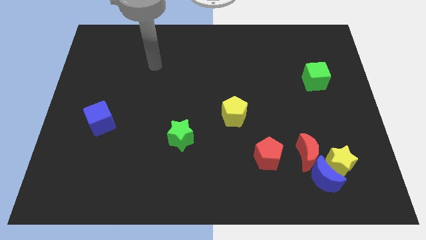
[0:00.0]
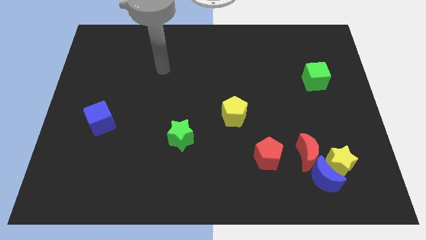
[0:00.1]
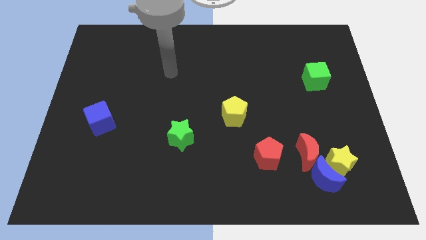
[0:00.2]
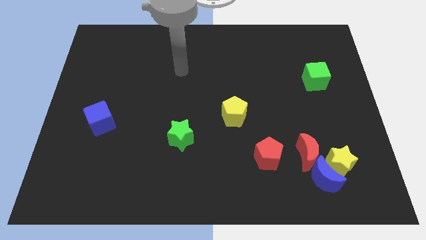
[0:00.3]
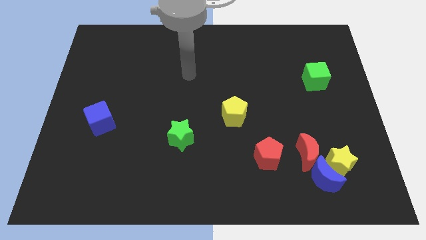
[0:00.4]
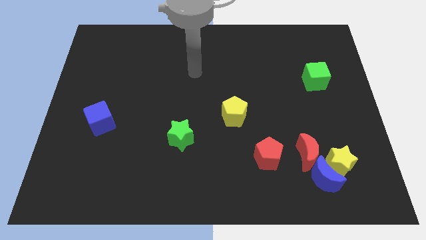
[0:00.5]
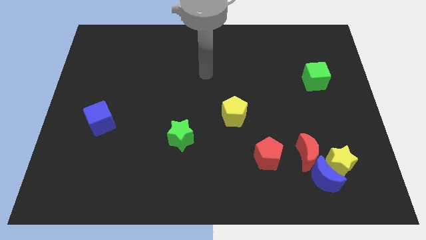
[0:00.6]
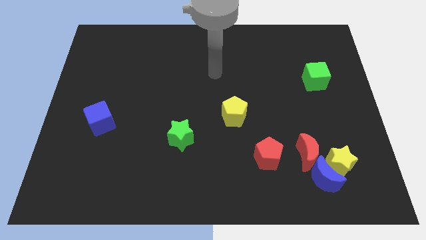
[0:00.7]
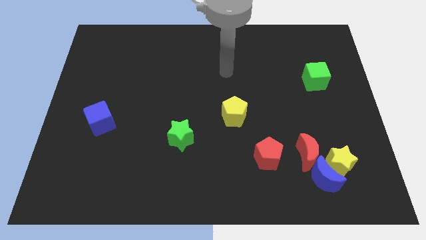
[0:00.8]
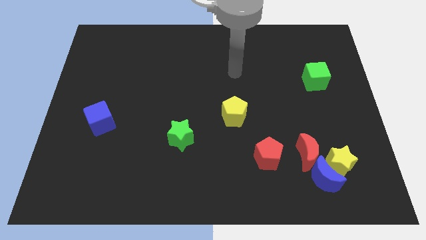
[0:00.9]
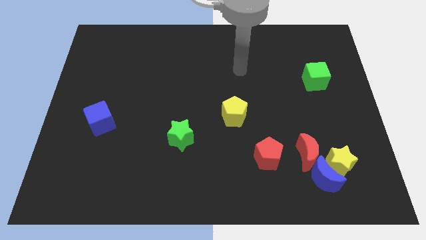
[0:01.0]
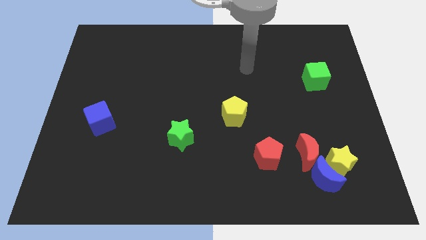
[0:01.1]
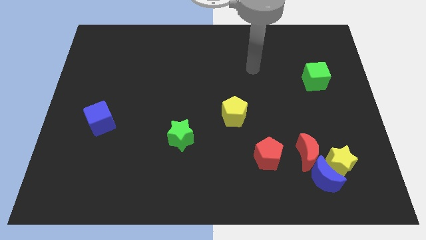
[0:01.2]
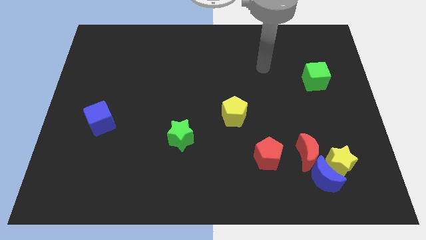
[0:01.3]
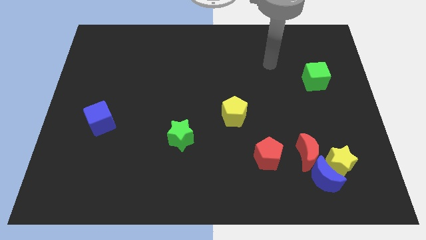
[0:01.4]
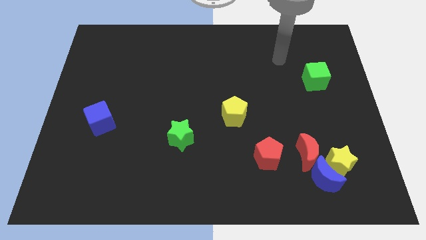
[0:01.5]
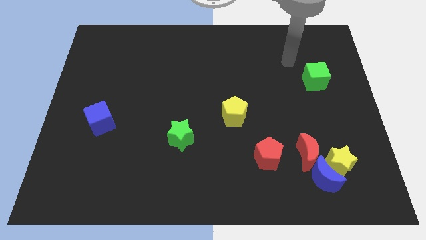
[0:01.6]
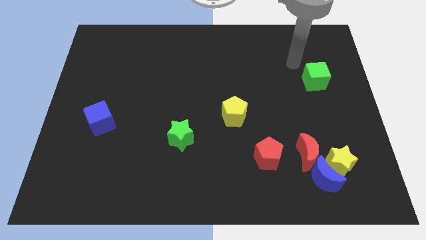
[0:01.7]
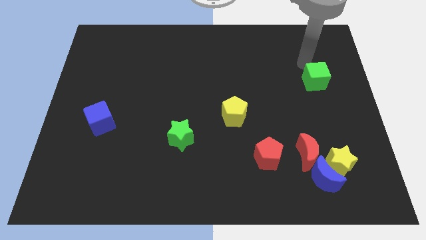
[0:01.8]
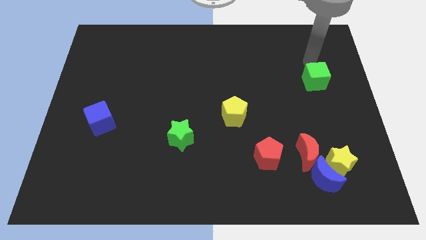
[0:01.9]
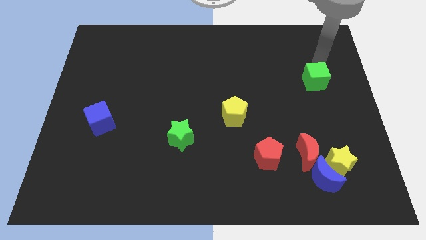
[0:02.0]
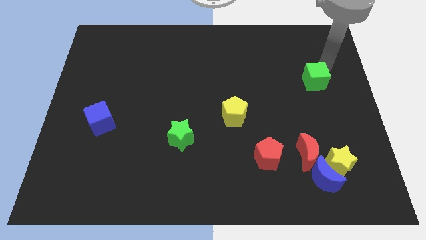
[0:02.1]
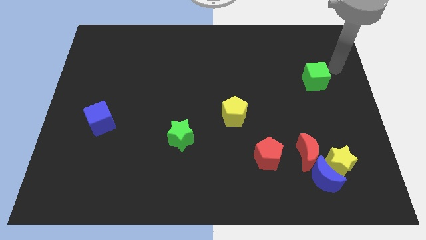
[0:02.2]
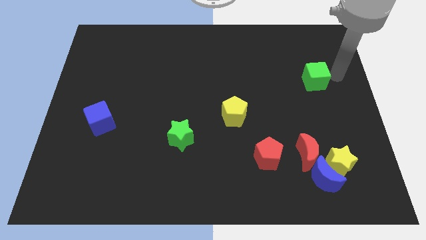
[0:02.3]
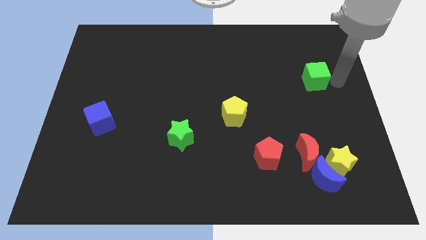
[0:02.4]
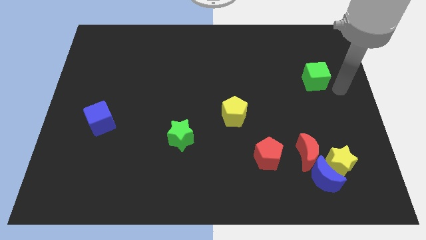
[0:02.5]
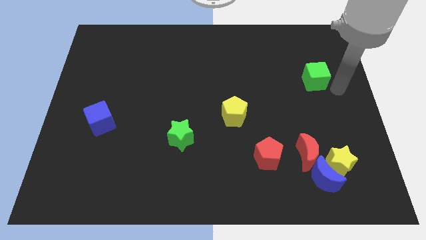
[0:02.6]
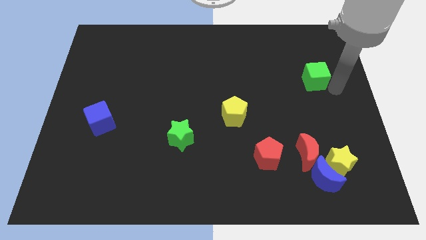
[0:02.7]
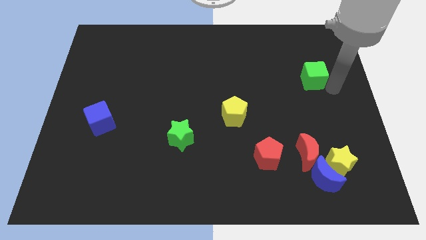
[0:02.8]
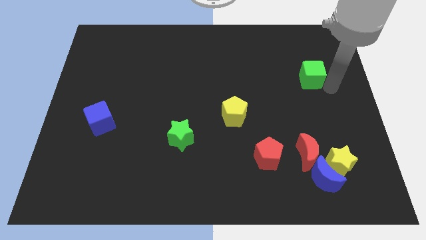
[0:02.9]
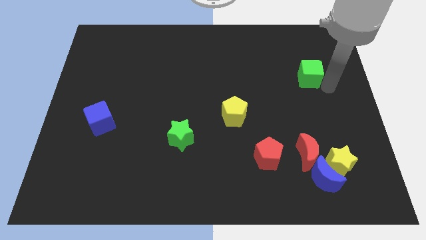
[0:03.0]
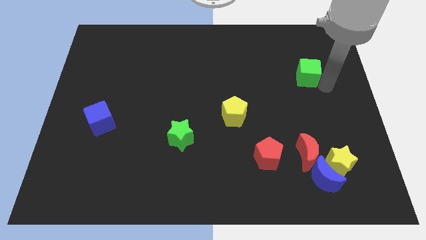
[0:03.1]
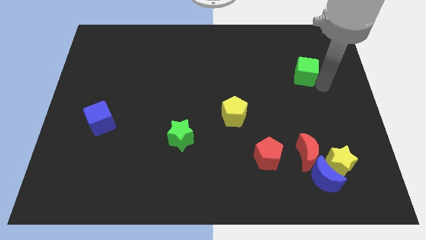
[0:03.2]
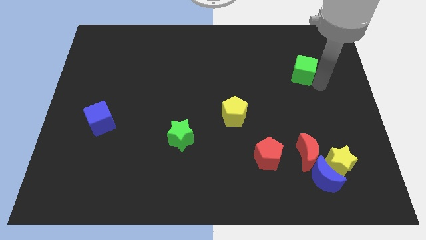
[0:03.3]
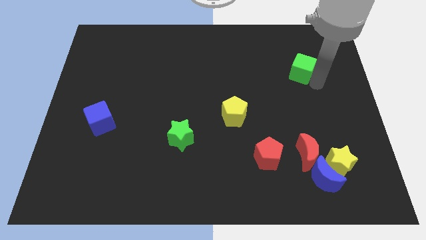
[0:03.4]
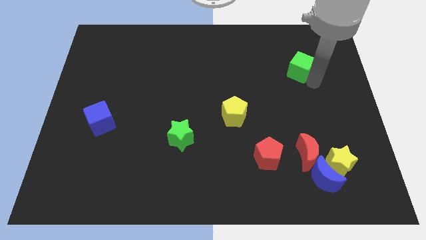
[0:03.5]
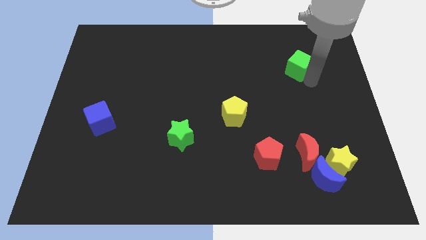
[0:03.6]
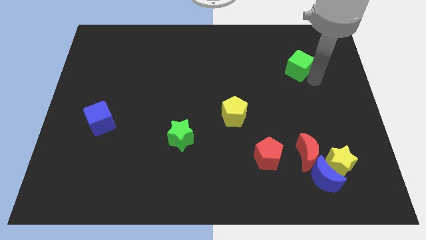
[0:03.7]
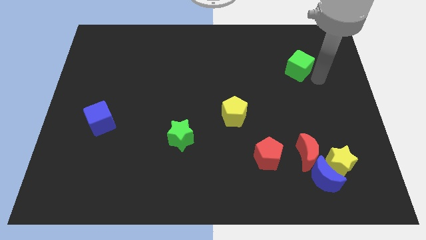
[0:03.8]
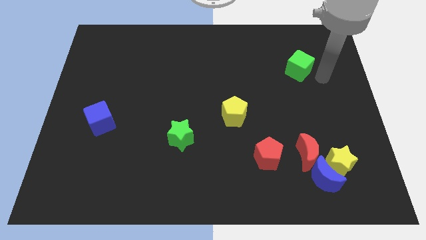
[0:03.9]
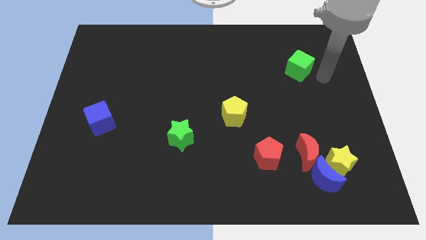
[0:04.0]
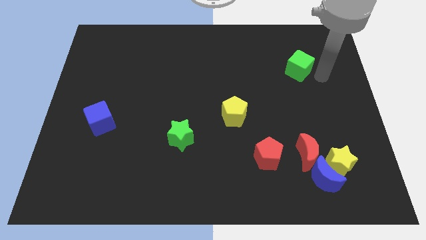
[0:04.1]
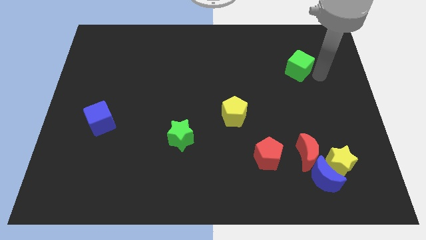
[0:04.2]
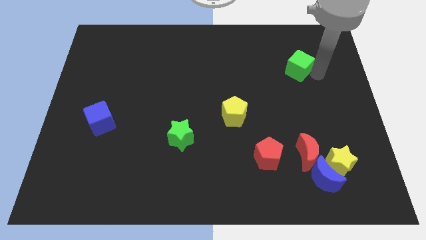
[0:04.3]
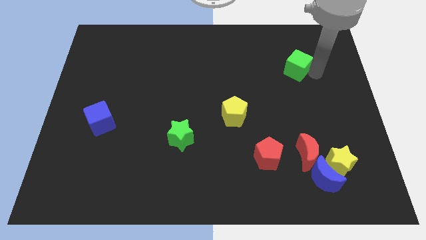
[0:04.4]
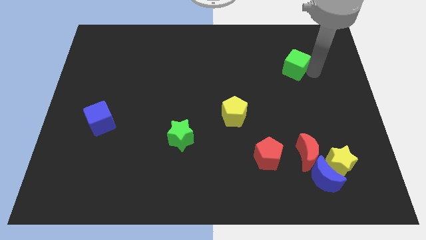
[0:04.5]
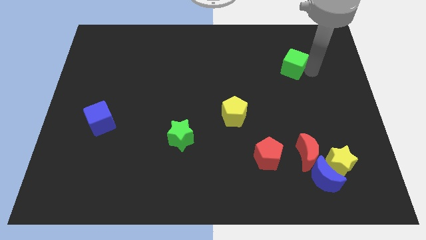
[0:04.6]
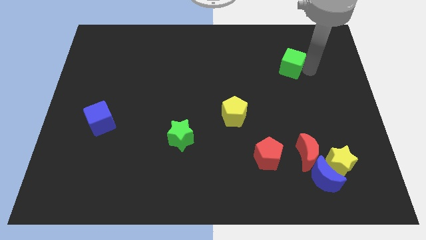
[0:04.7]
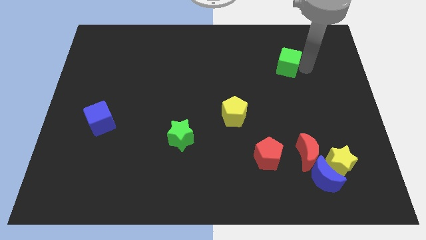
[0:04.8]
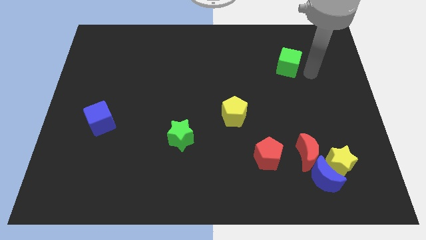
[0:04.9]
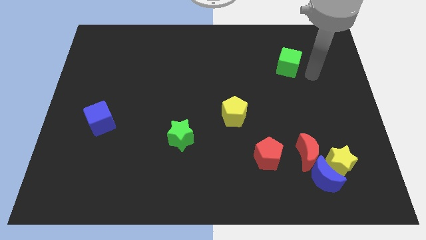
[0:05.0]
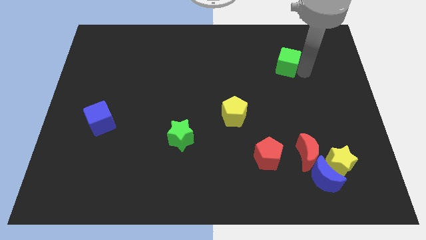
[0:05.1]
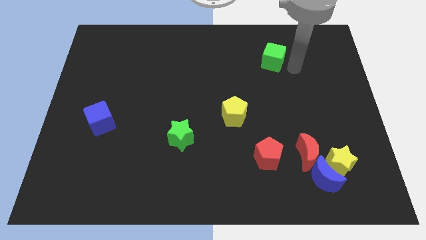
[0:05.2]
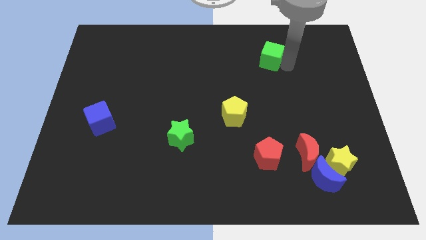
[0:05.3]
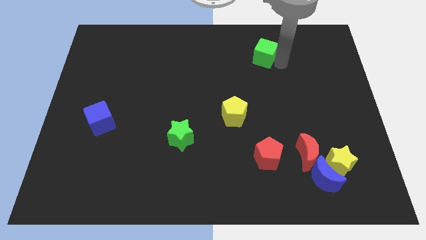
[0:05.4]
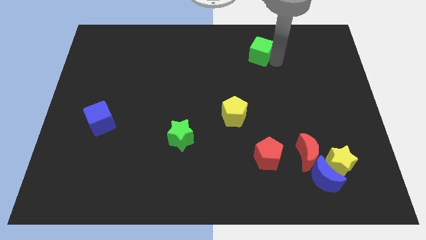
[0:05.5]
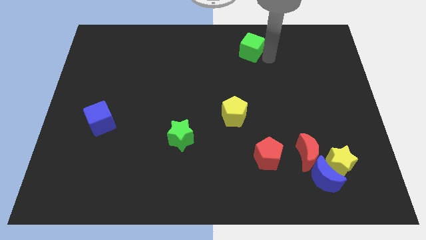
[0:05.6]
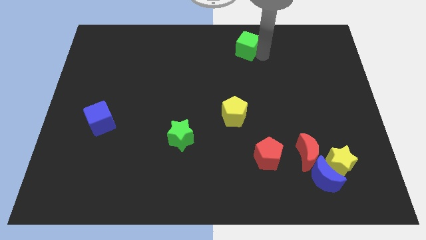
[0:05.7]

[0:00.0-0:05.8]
slide the green cube to the top side

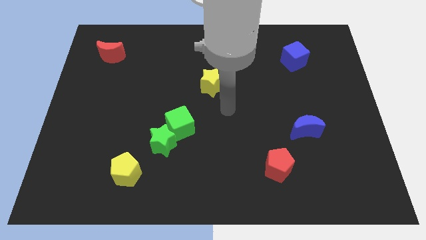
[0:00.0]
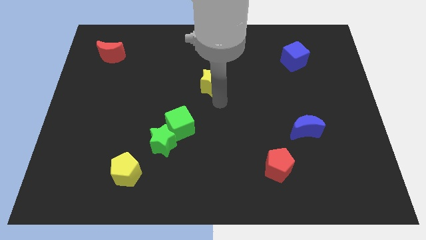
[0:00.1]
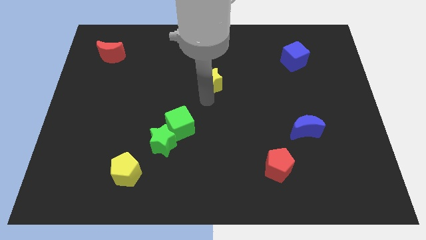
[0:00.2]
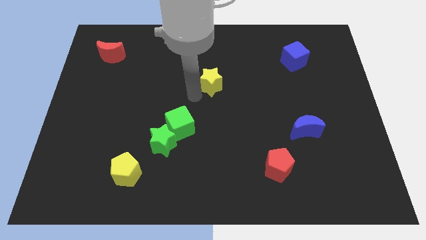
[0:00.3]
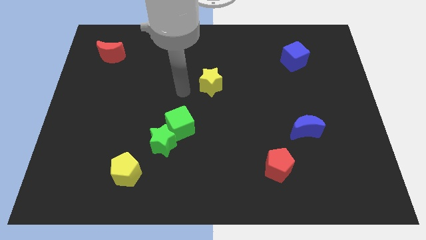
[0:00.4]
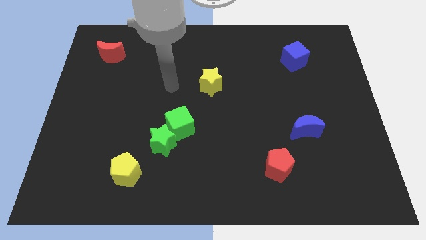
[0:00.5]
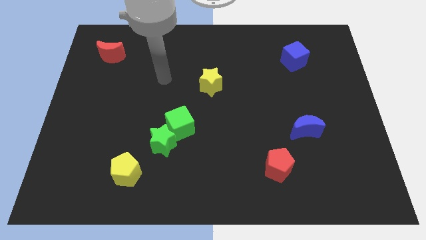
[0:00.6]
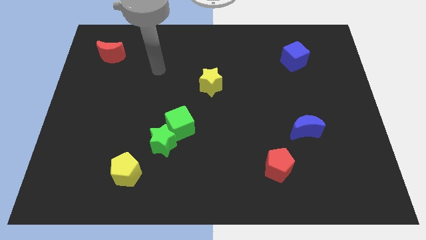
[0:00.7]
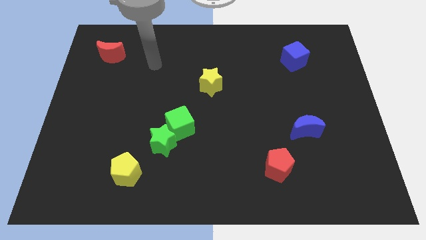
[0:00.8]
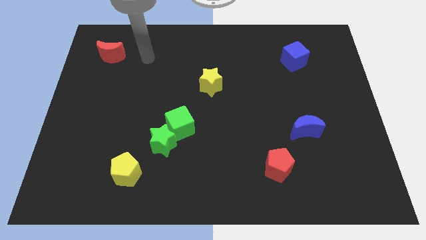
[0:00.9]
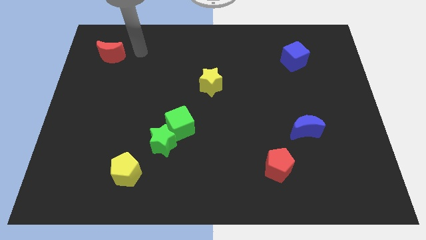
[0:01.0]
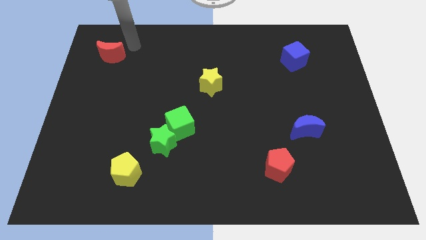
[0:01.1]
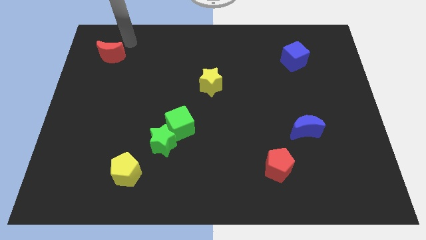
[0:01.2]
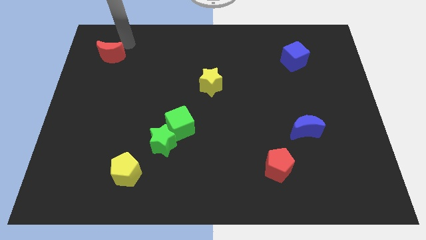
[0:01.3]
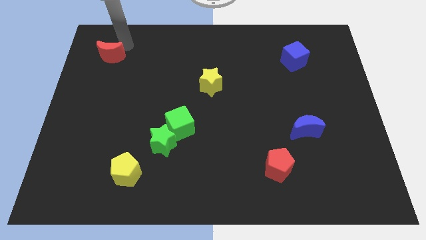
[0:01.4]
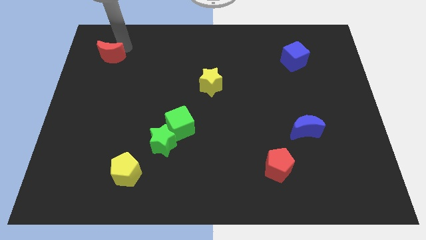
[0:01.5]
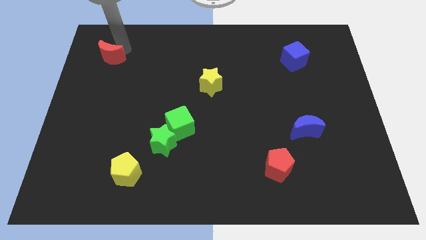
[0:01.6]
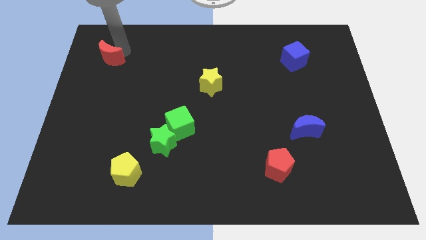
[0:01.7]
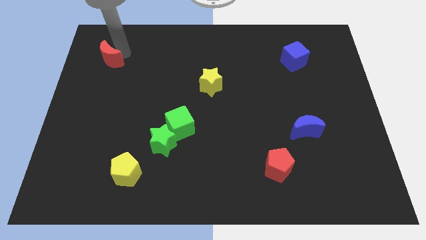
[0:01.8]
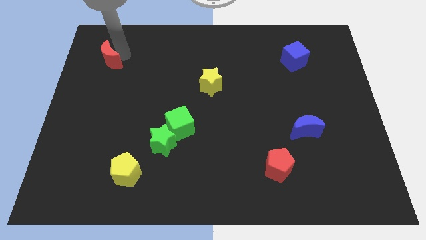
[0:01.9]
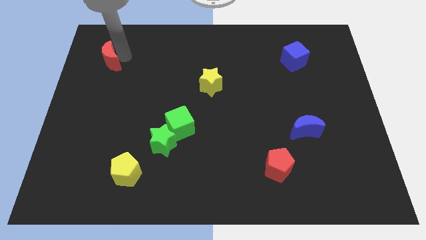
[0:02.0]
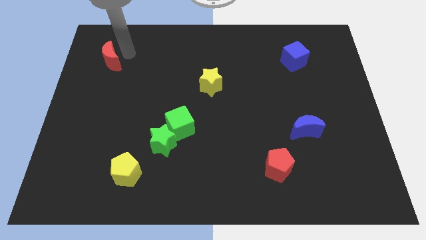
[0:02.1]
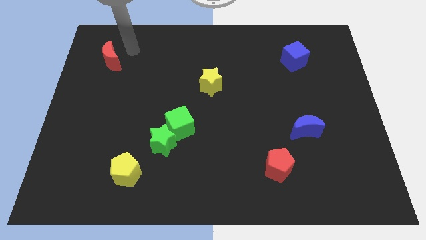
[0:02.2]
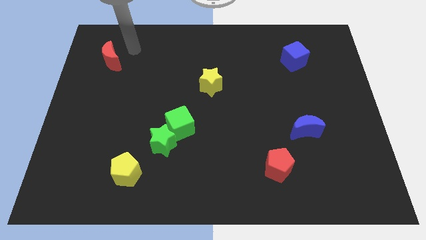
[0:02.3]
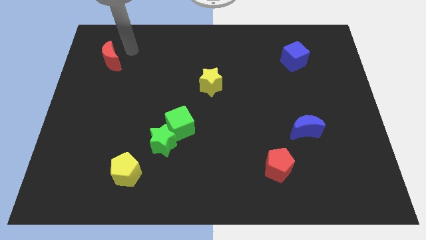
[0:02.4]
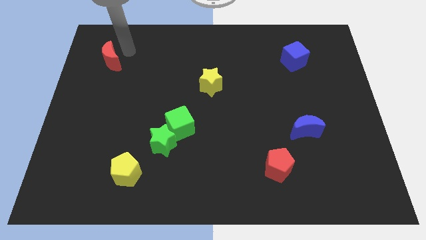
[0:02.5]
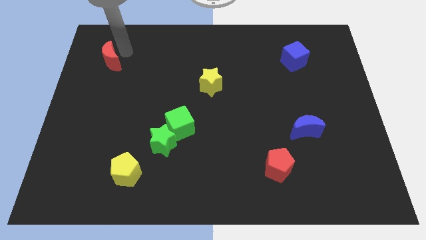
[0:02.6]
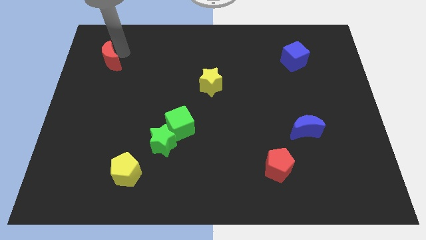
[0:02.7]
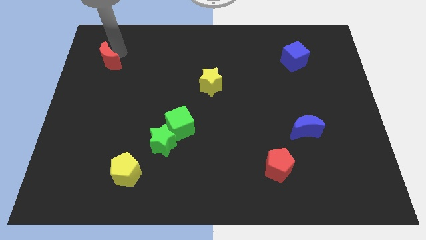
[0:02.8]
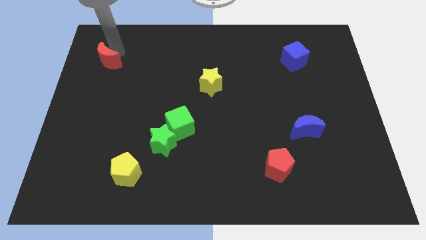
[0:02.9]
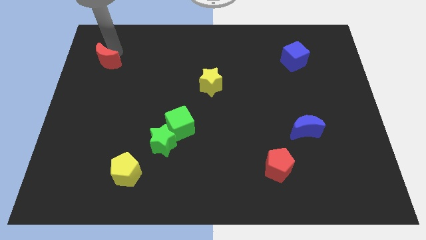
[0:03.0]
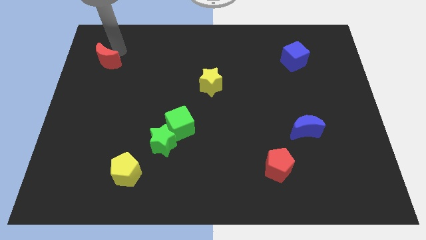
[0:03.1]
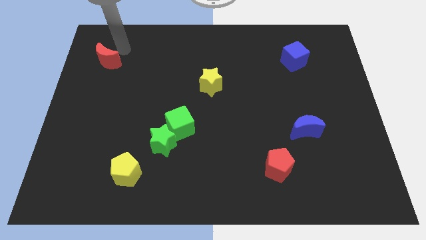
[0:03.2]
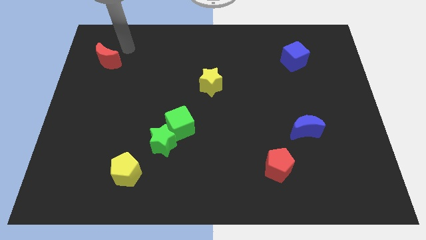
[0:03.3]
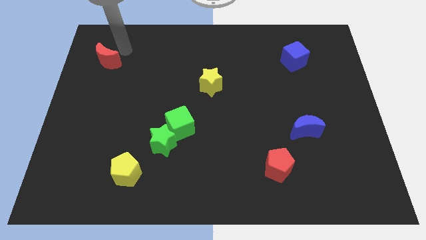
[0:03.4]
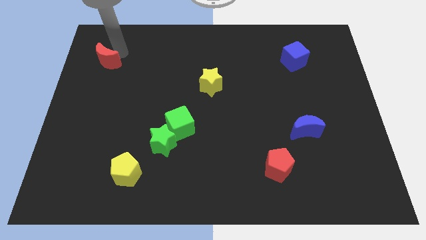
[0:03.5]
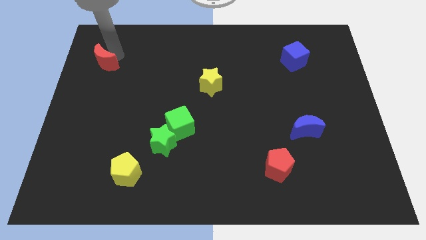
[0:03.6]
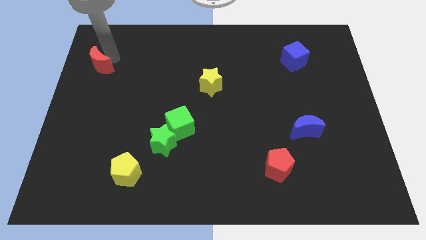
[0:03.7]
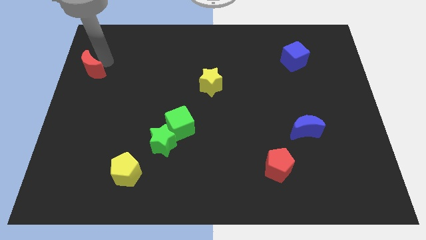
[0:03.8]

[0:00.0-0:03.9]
push the red moon to the center left
